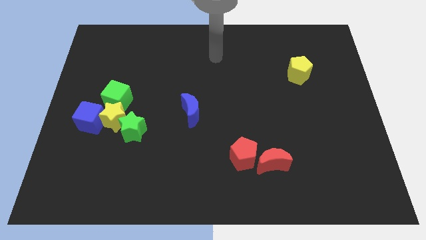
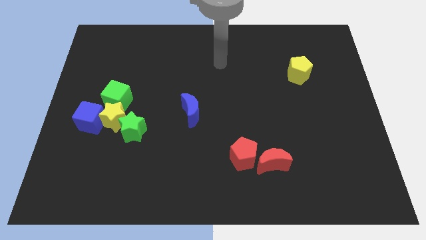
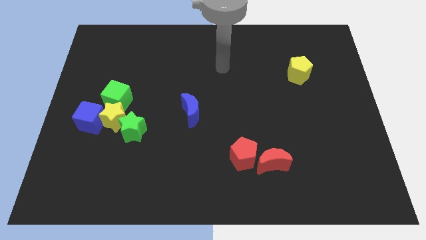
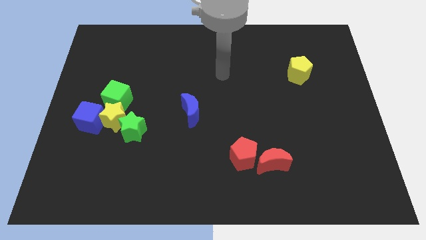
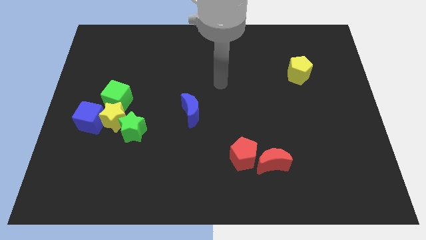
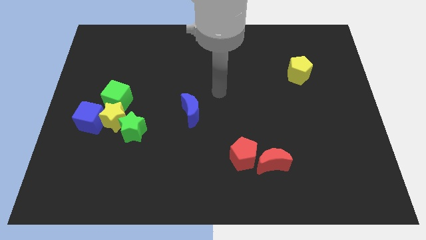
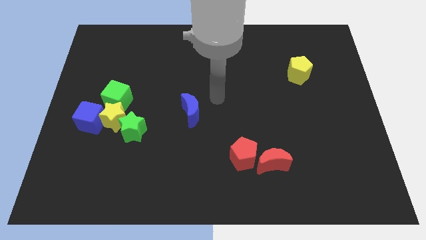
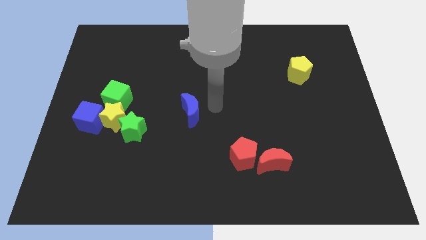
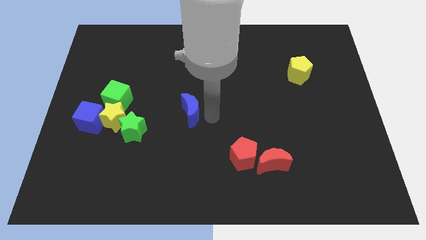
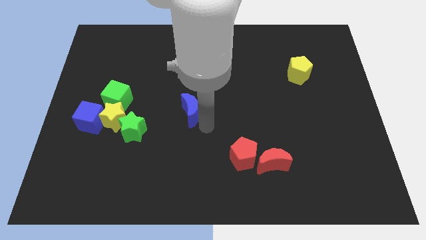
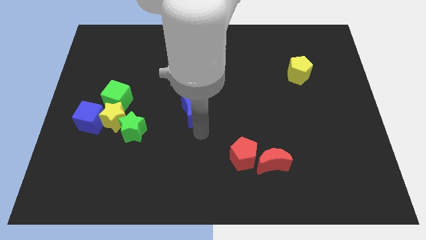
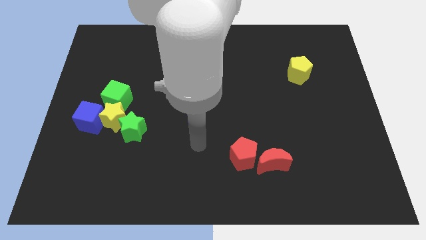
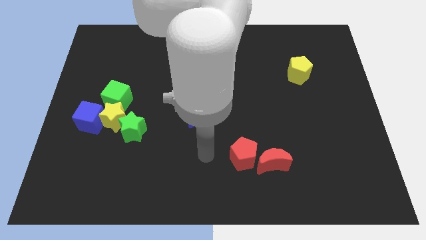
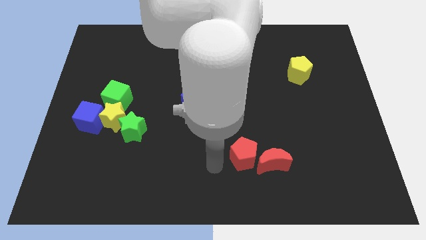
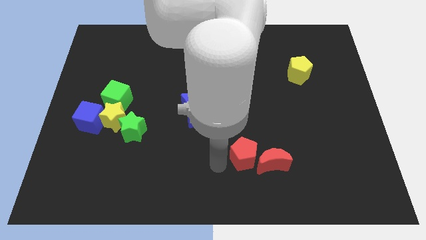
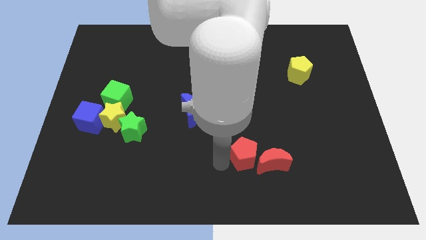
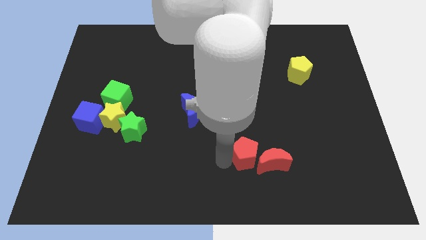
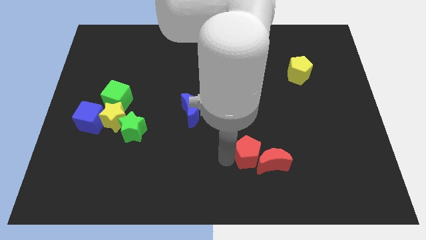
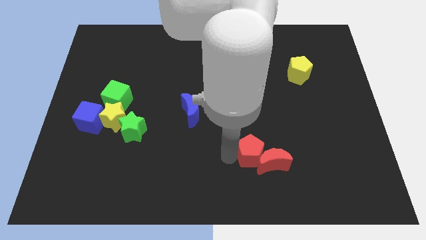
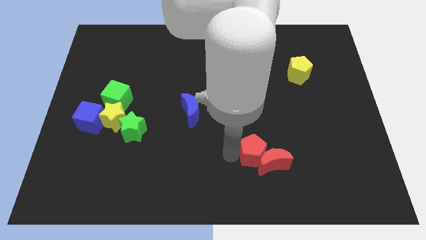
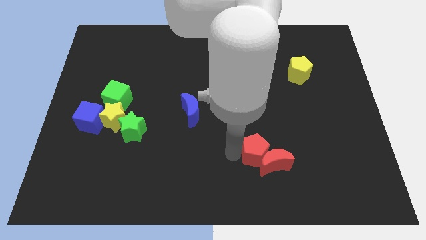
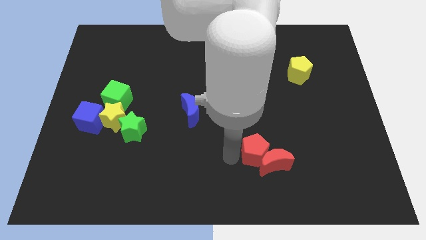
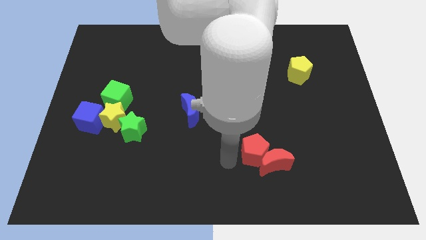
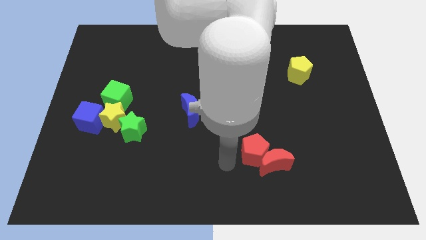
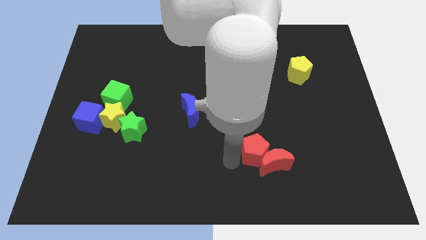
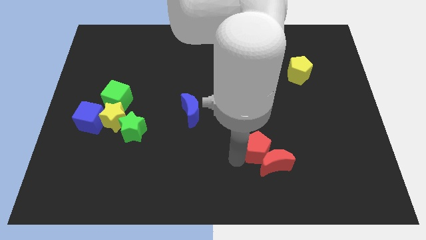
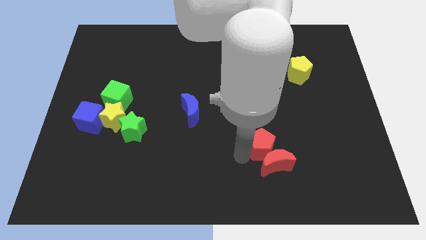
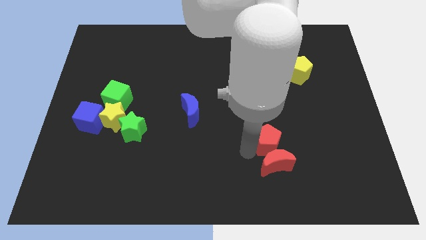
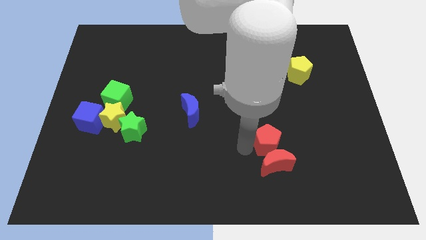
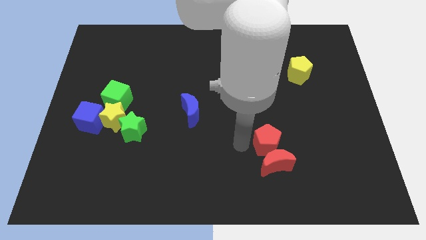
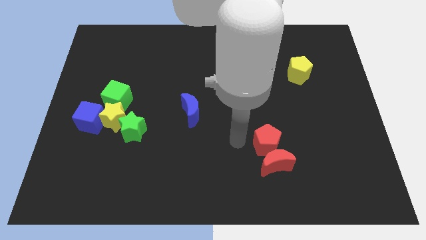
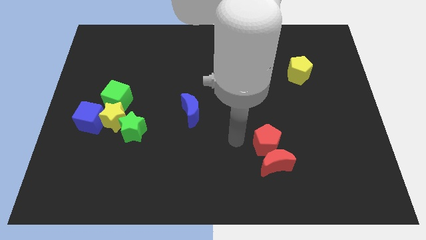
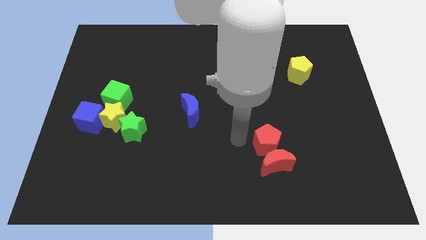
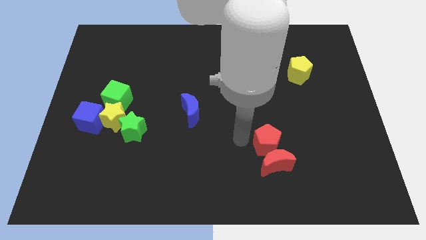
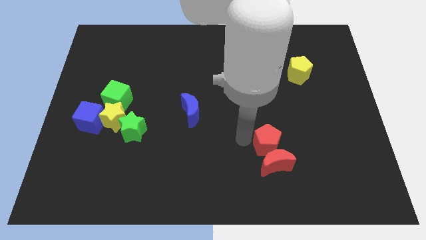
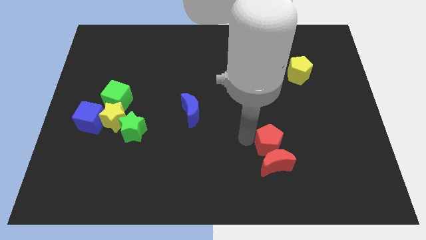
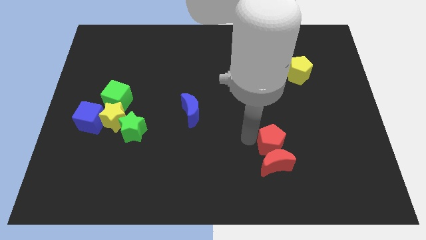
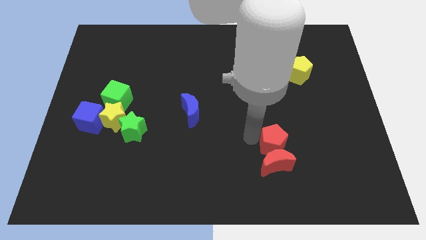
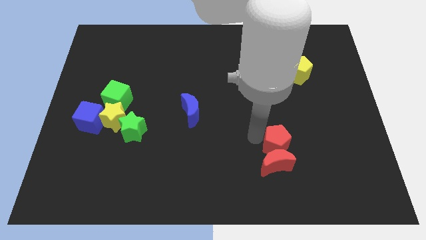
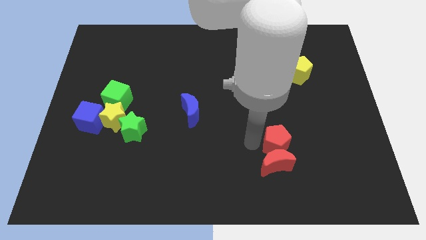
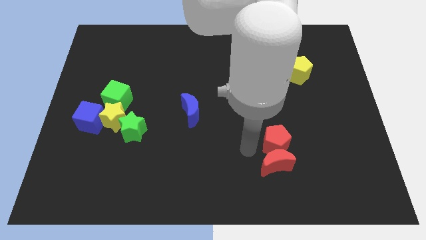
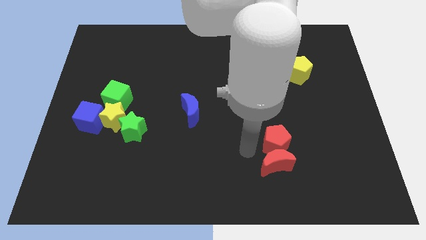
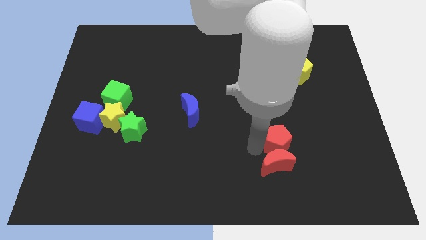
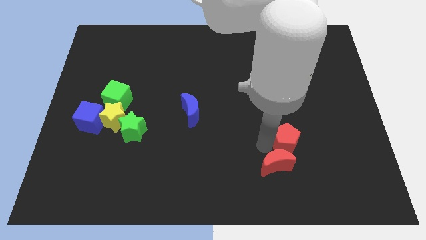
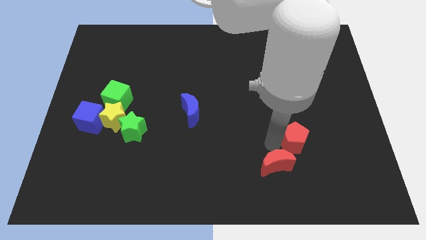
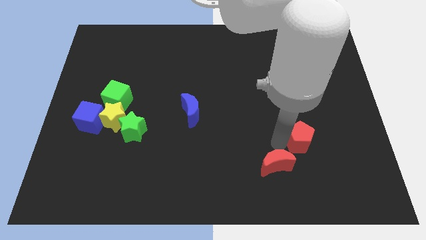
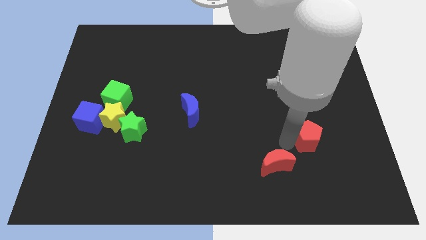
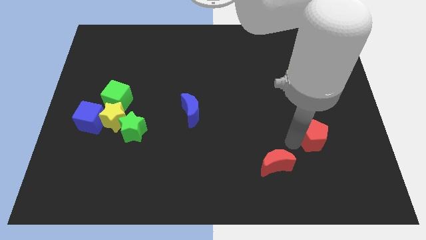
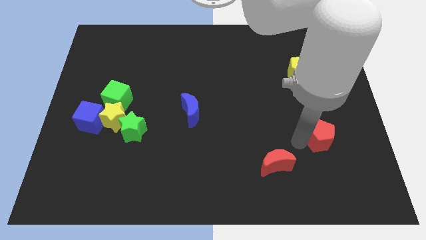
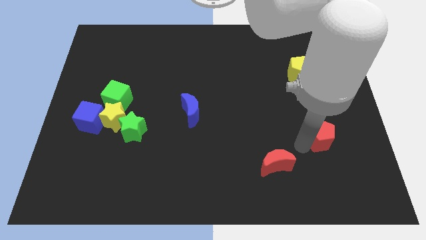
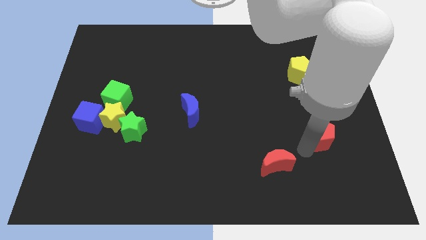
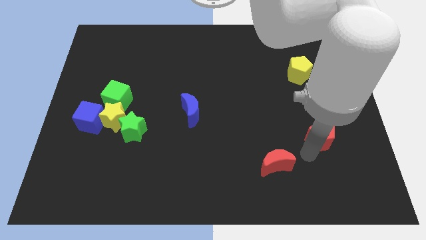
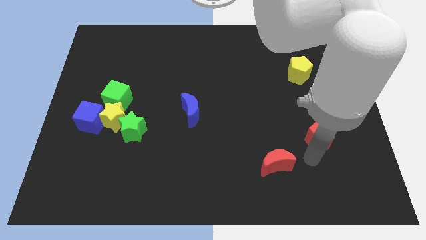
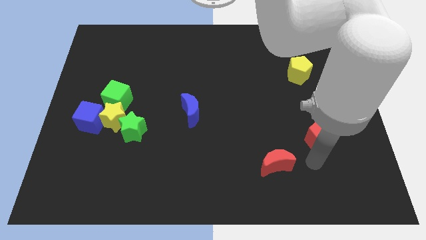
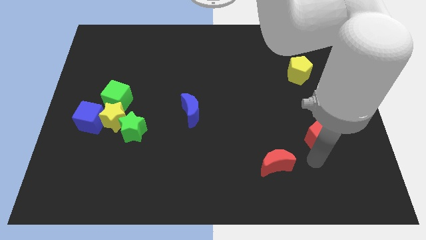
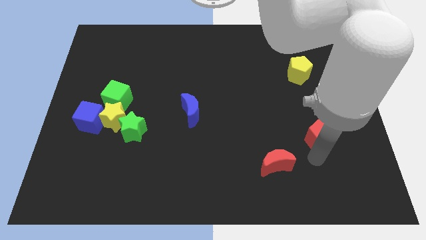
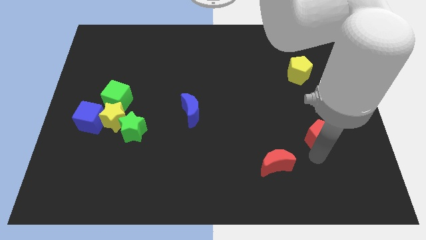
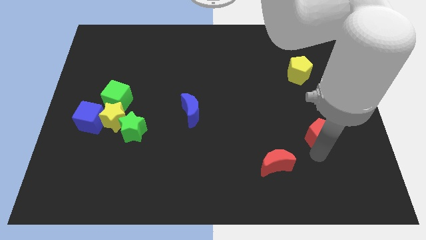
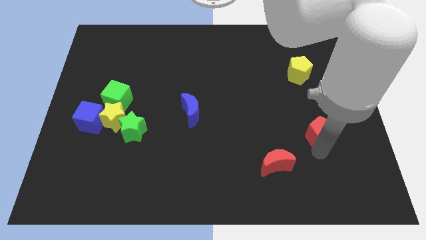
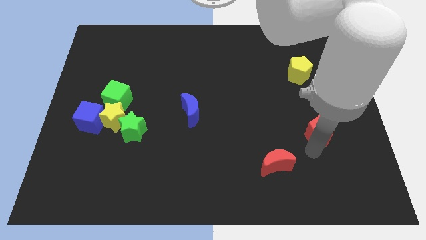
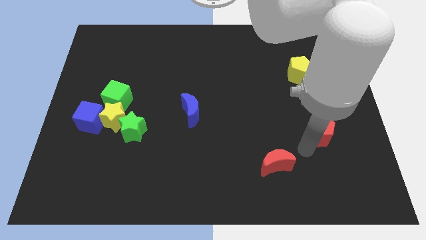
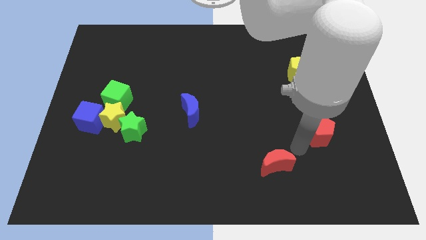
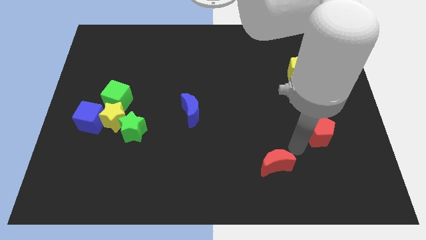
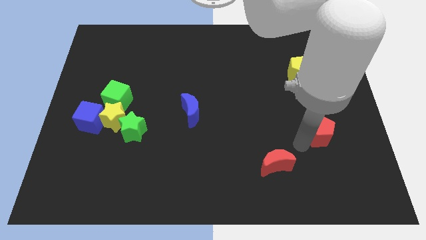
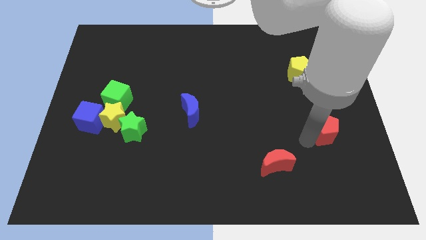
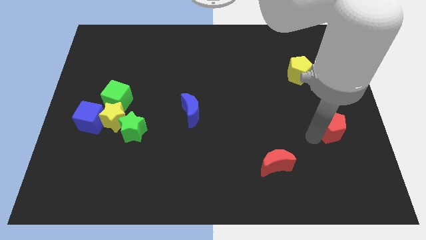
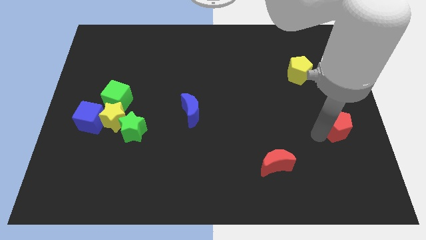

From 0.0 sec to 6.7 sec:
put the red pentagon to the right side
